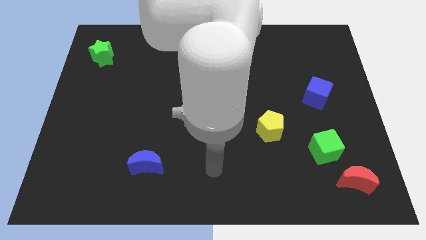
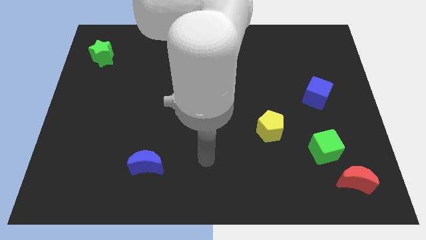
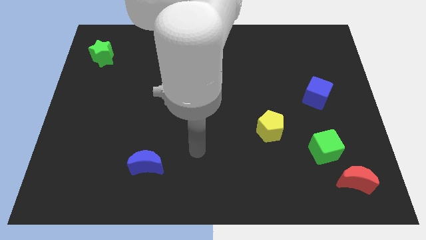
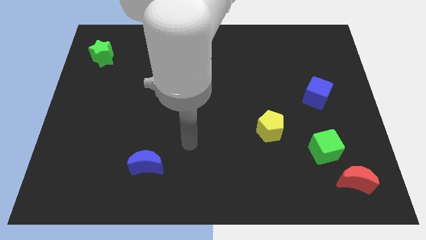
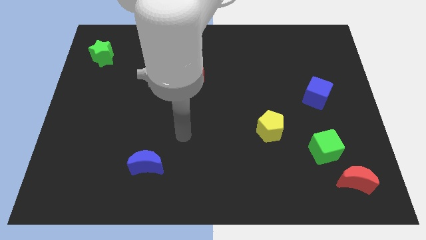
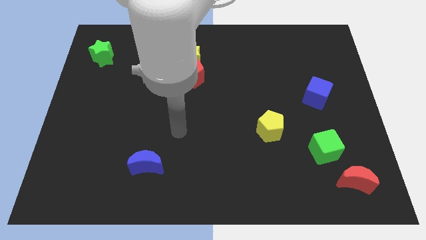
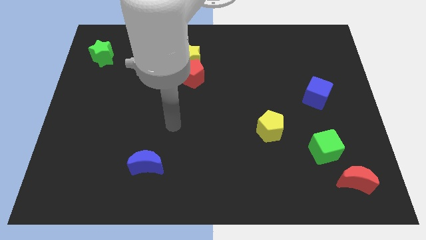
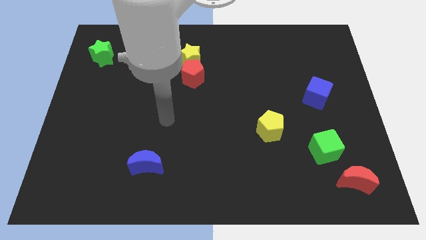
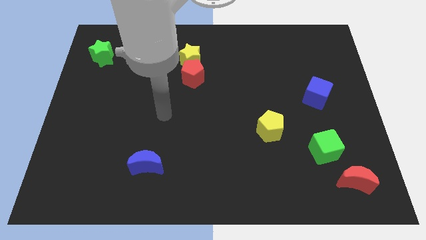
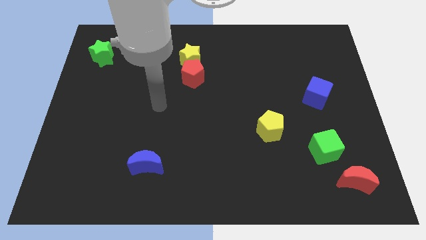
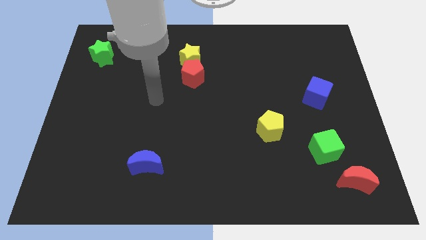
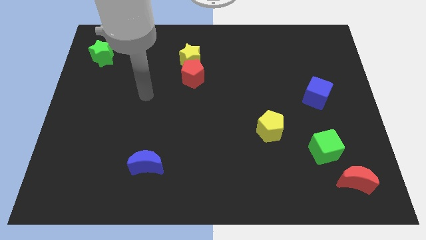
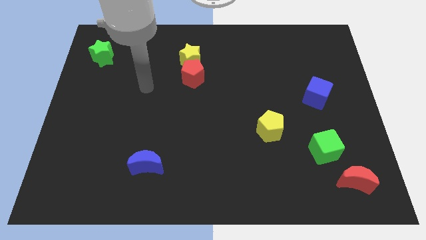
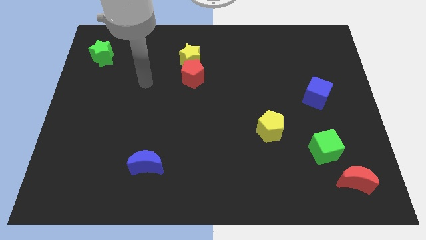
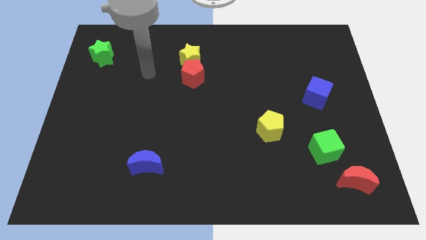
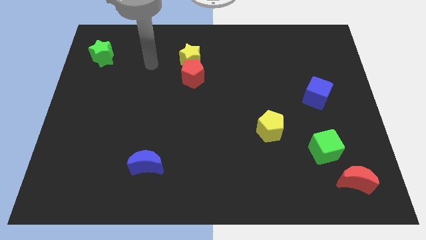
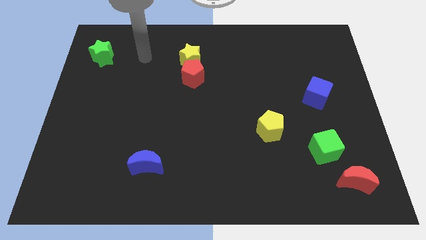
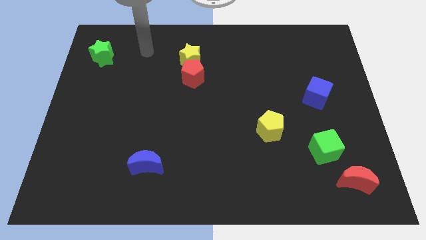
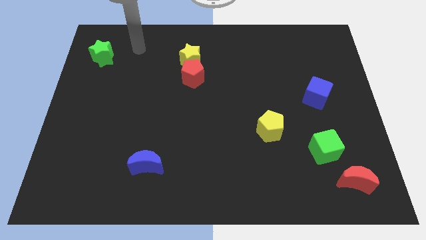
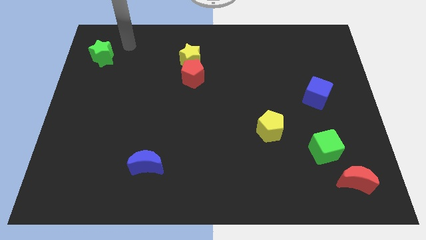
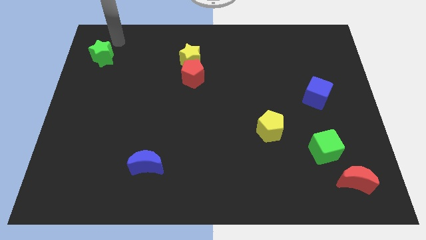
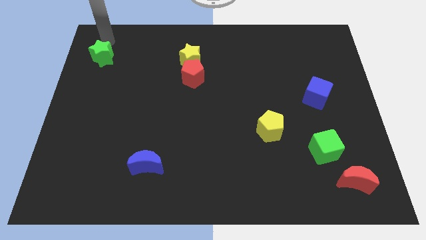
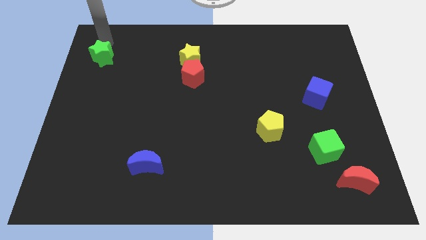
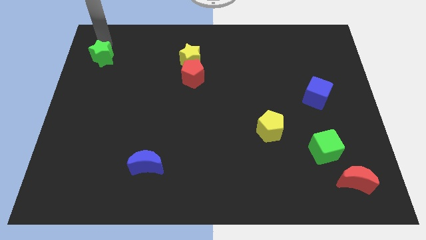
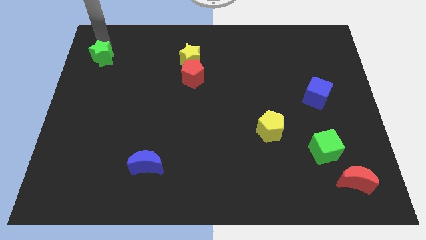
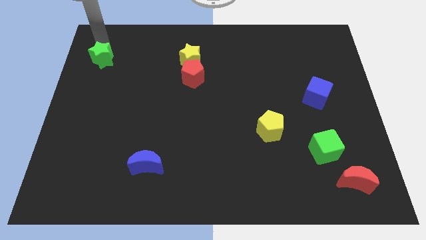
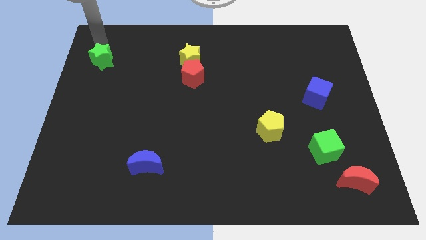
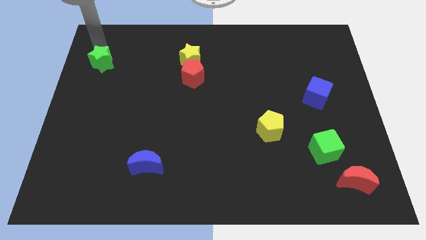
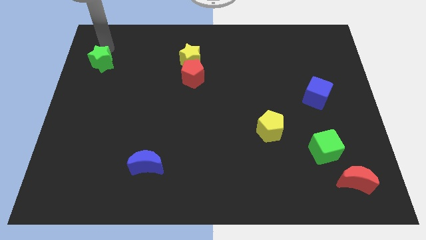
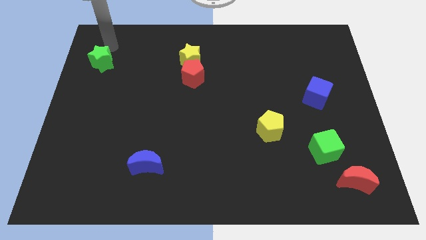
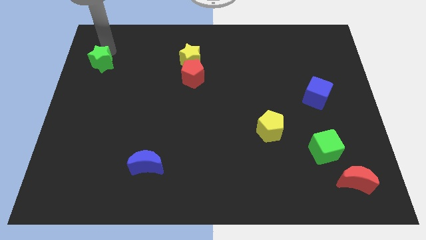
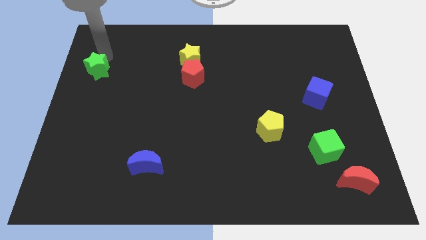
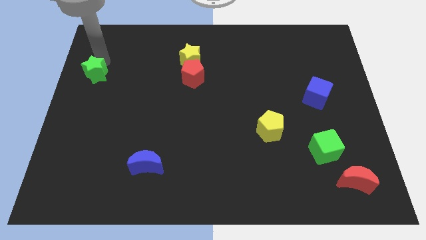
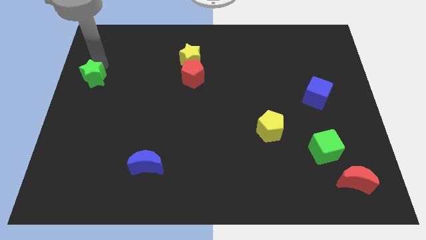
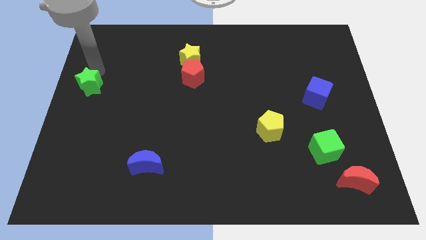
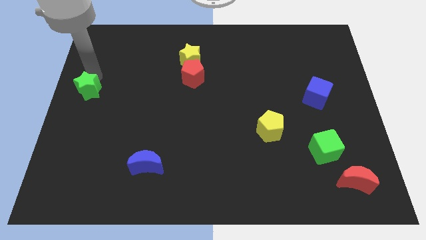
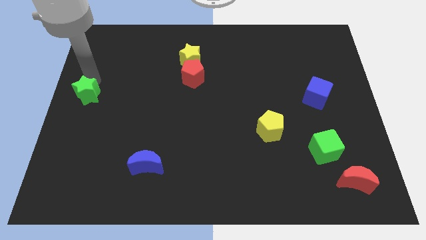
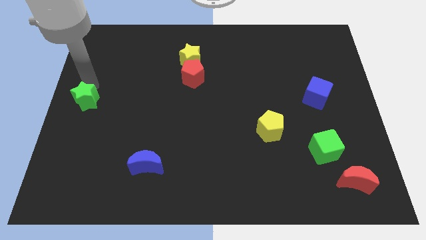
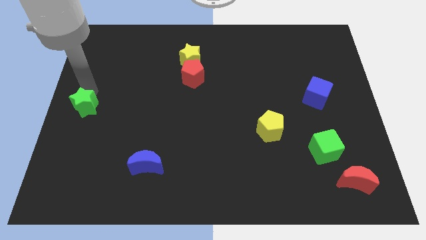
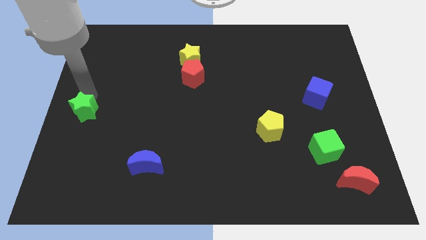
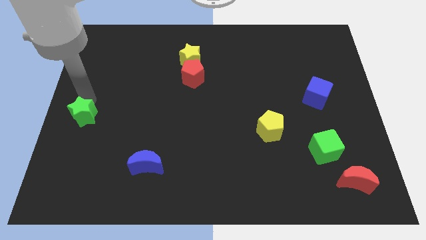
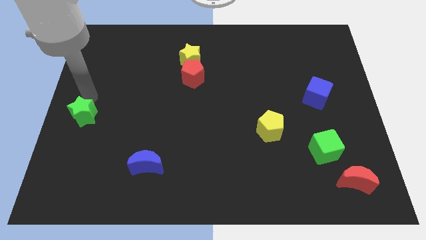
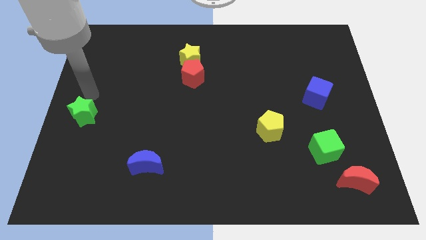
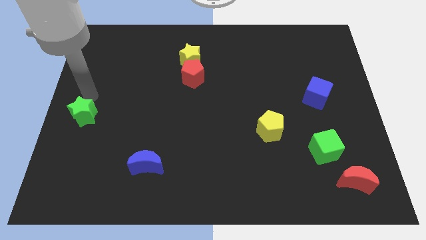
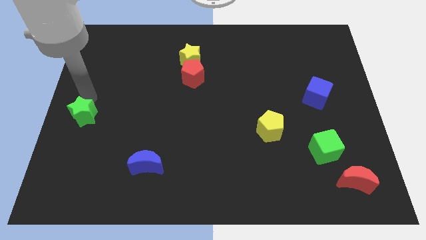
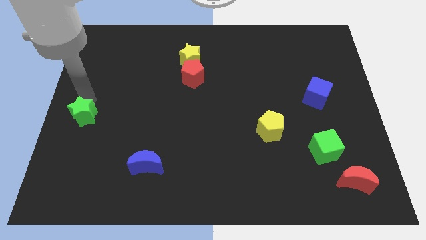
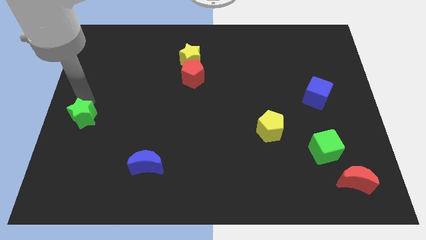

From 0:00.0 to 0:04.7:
push the green star downwards

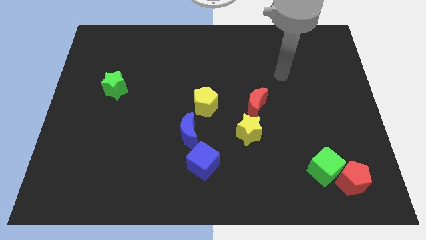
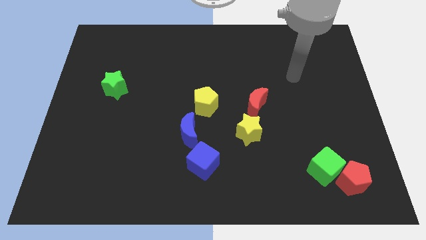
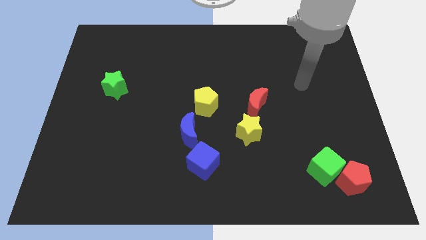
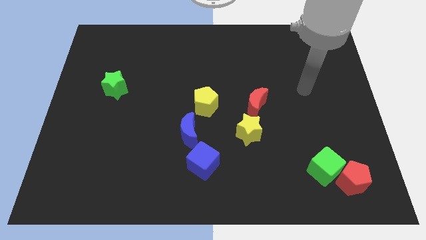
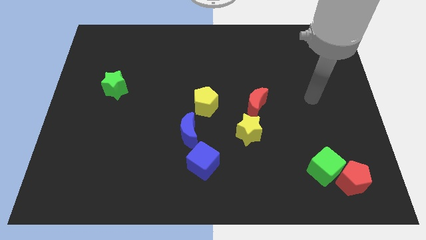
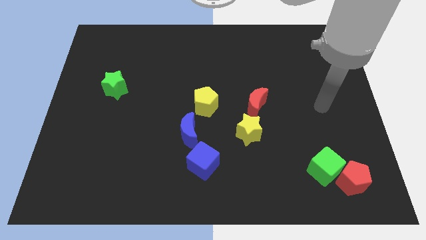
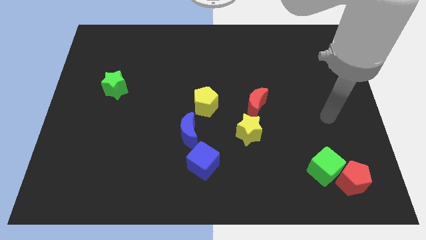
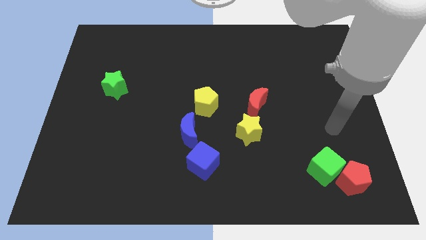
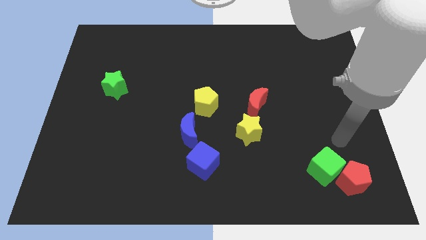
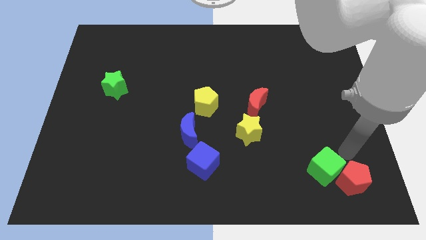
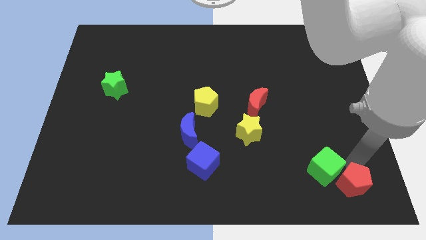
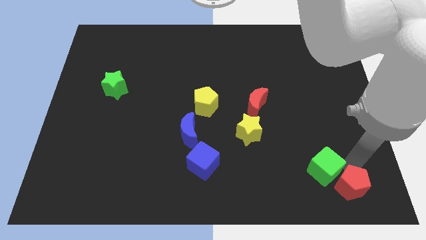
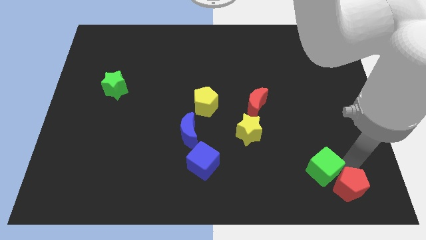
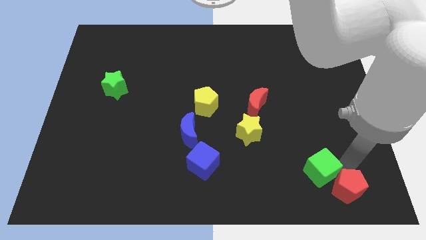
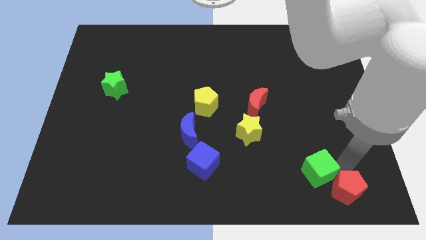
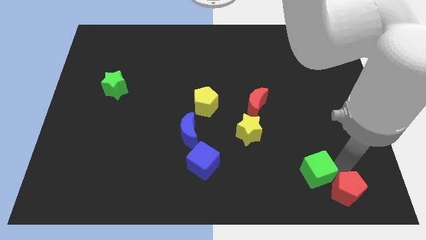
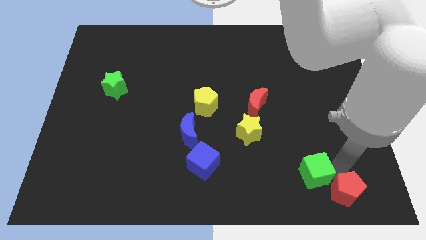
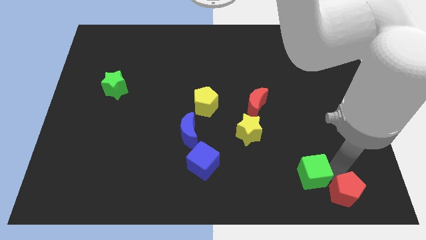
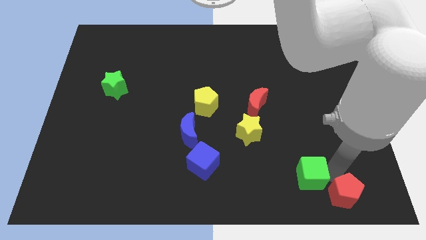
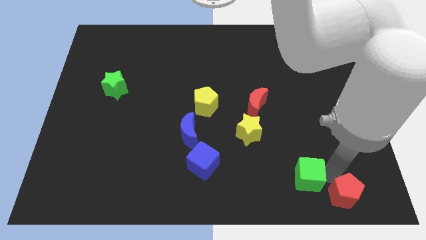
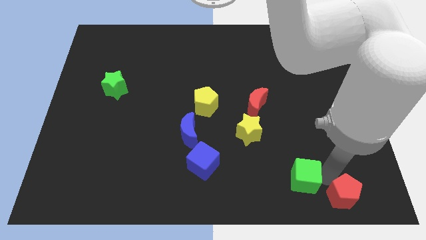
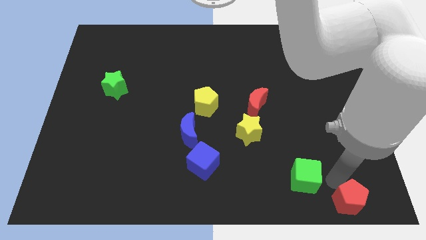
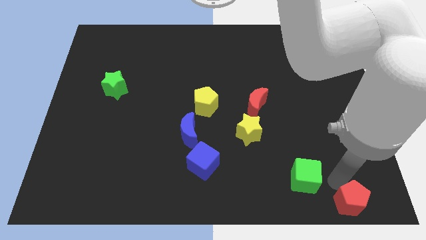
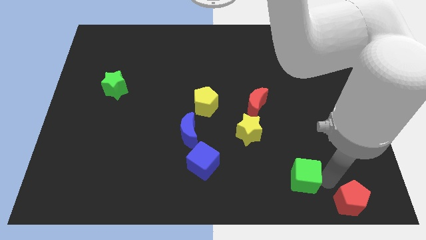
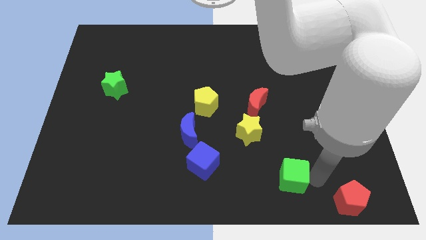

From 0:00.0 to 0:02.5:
slightly push the green cube to the left

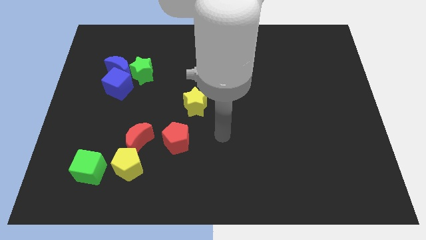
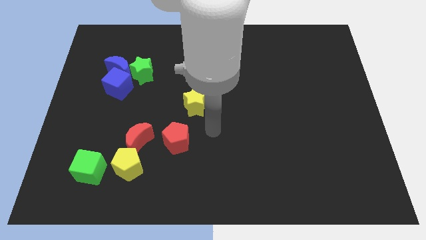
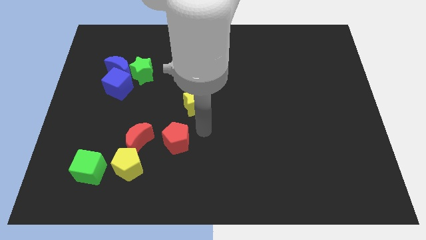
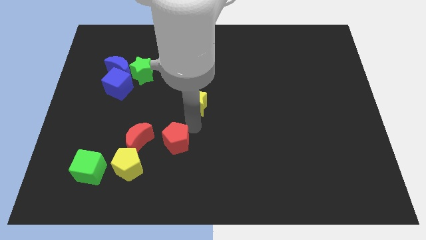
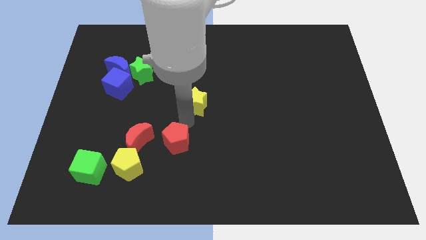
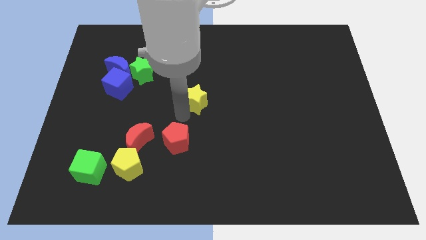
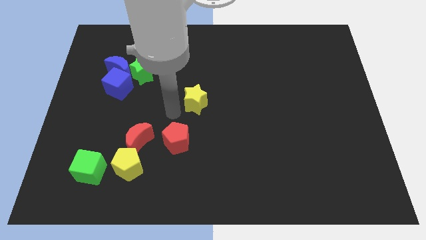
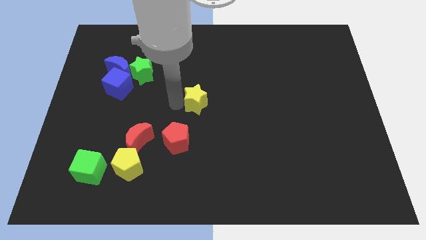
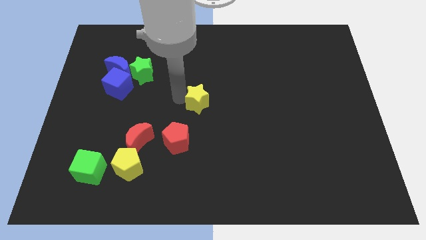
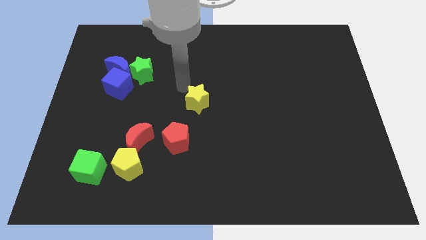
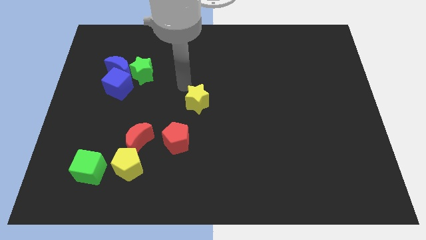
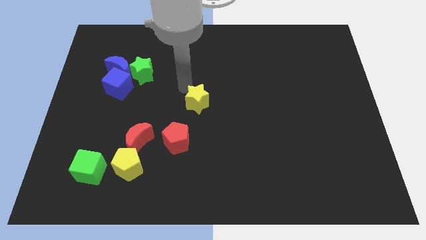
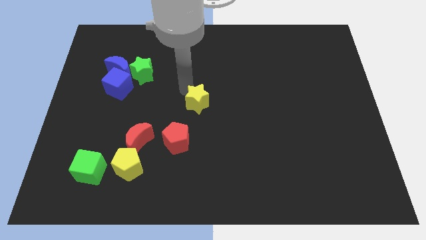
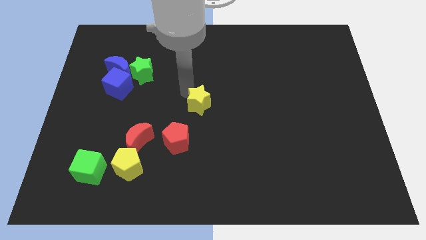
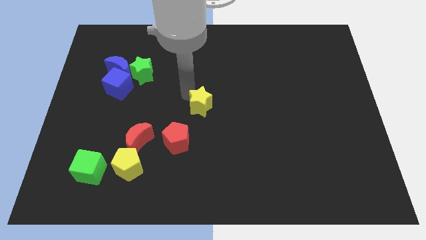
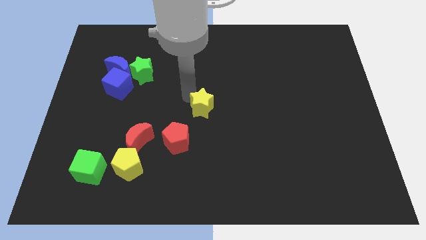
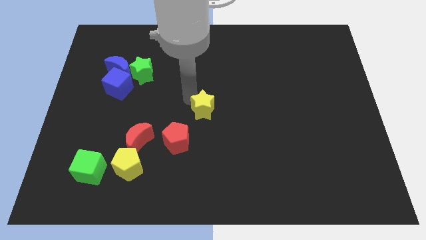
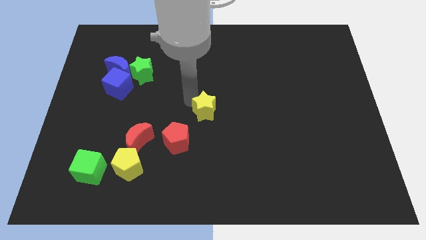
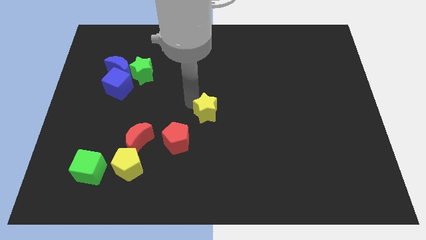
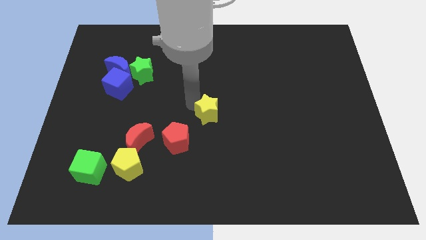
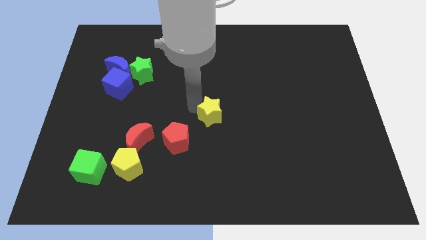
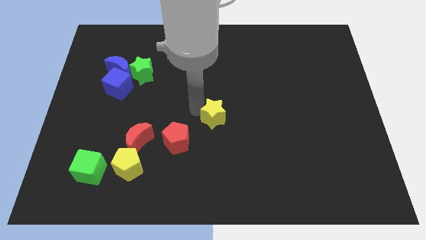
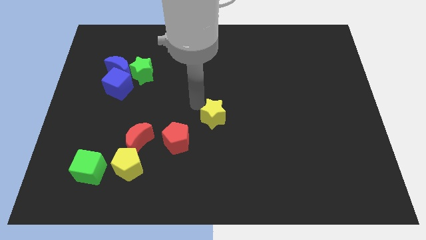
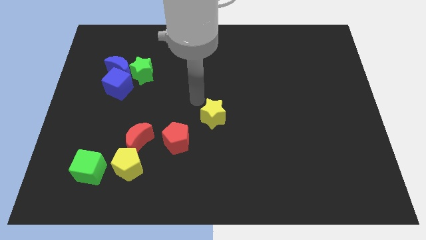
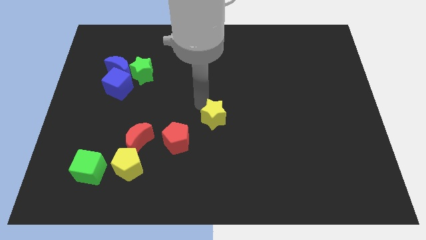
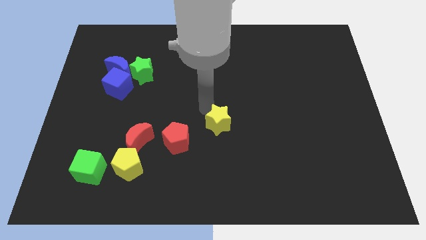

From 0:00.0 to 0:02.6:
slightly move the yellow star down and to the right diagonally
